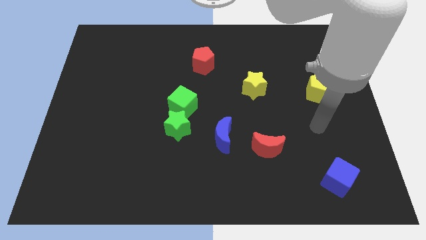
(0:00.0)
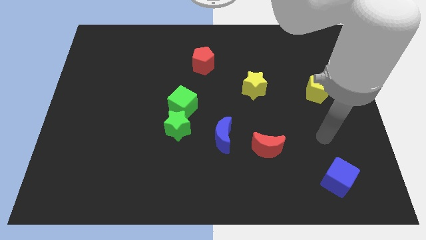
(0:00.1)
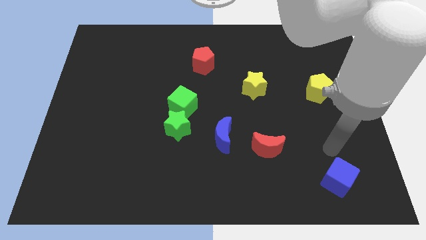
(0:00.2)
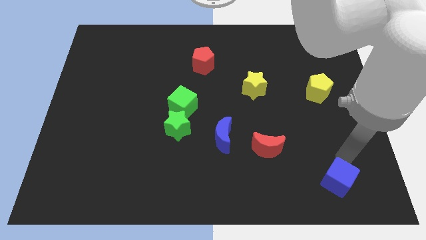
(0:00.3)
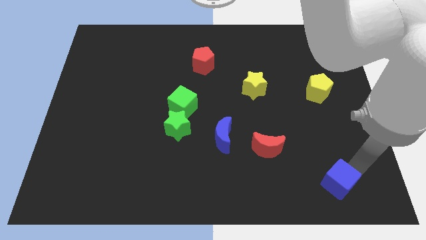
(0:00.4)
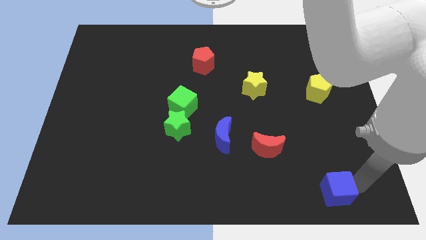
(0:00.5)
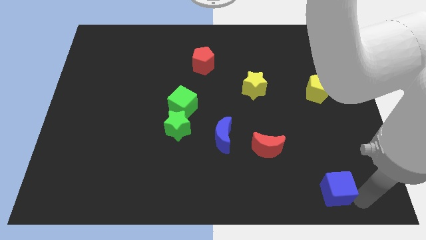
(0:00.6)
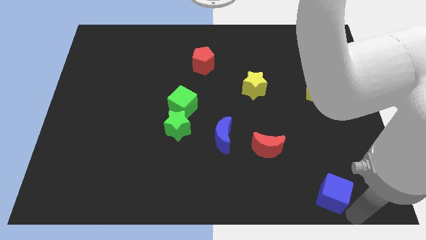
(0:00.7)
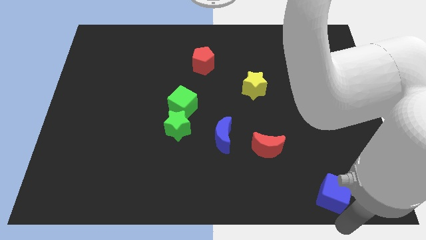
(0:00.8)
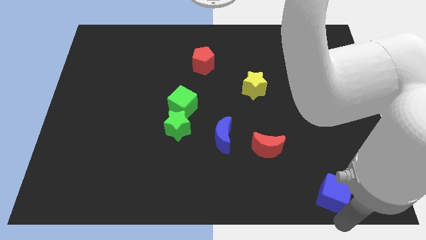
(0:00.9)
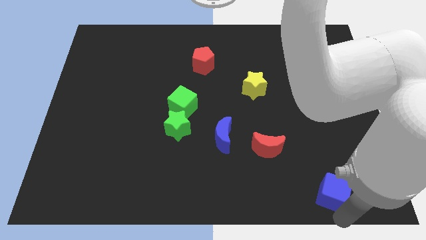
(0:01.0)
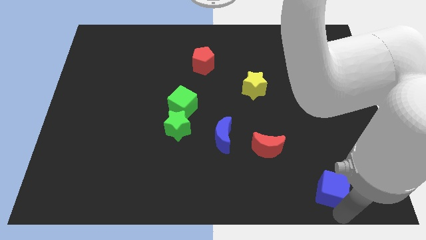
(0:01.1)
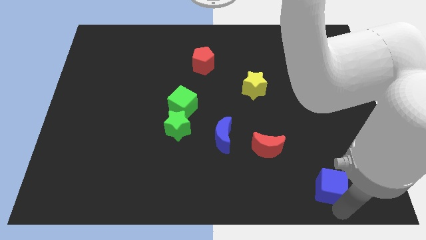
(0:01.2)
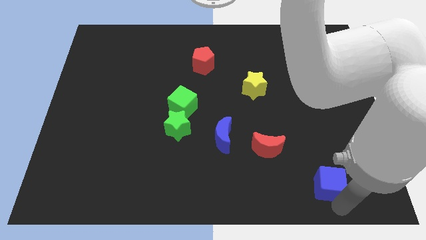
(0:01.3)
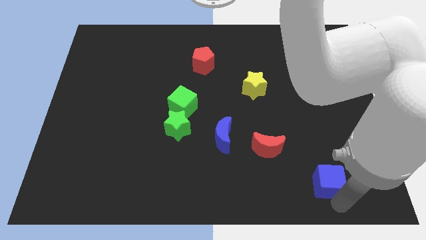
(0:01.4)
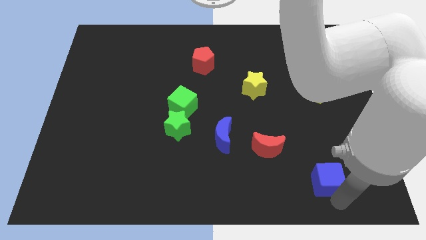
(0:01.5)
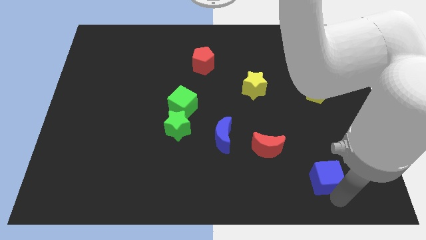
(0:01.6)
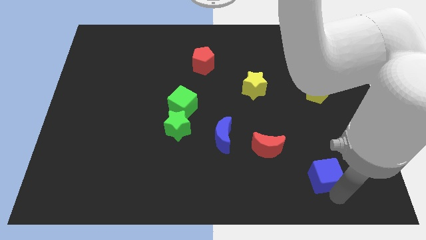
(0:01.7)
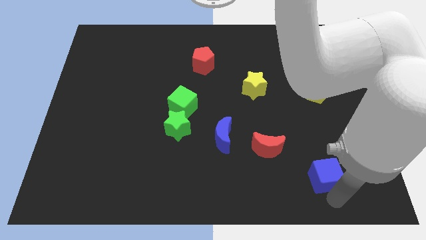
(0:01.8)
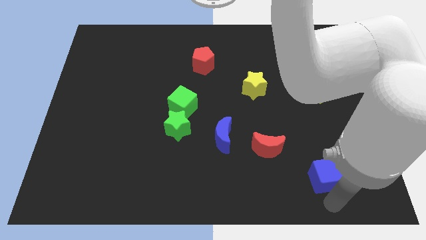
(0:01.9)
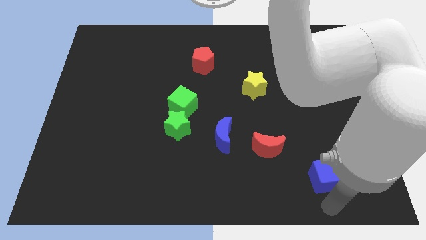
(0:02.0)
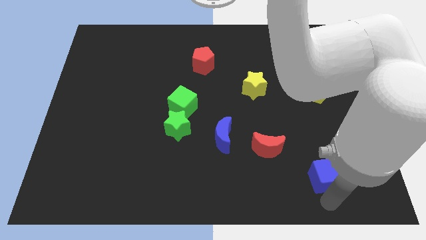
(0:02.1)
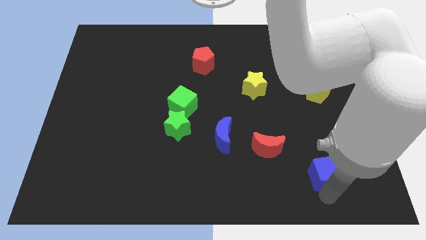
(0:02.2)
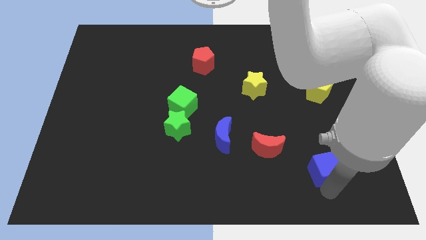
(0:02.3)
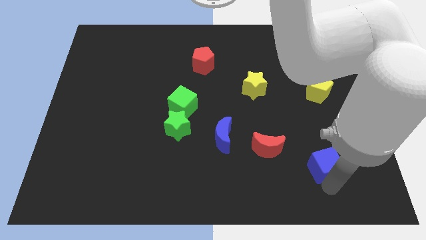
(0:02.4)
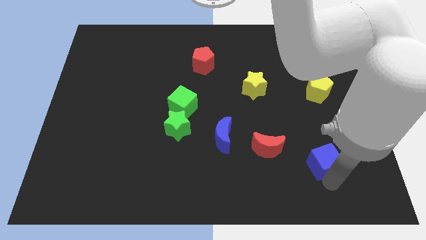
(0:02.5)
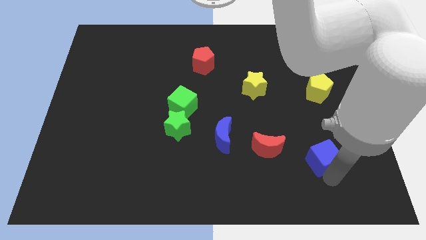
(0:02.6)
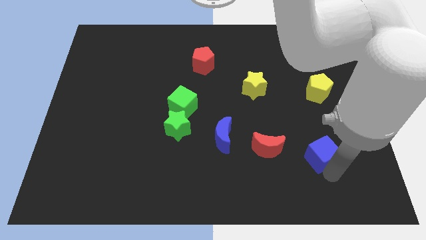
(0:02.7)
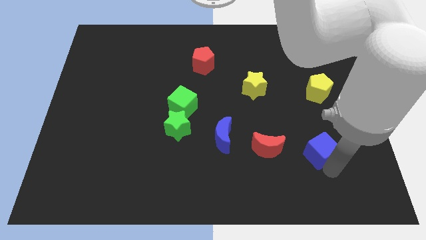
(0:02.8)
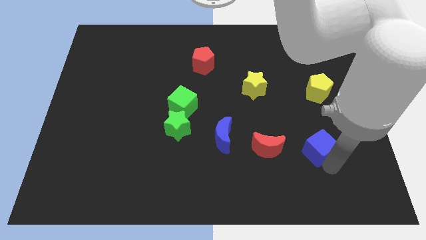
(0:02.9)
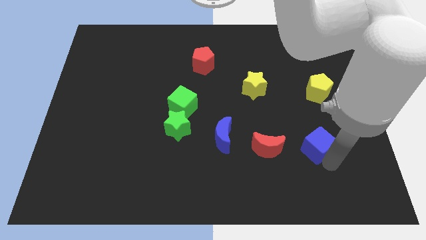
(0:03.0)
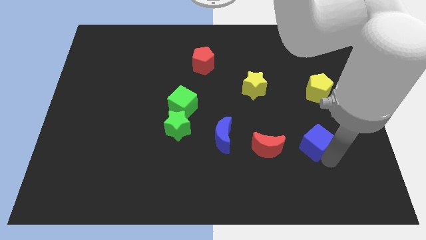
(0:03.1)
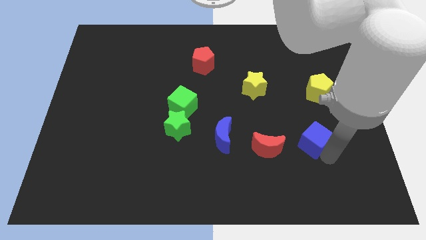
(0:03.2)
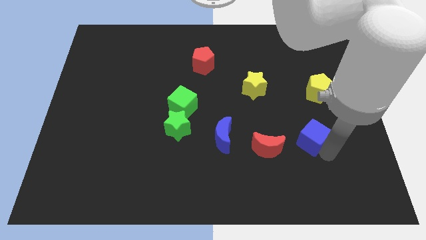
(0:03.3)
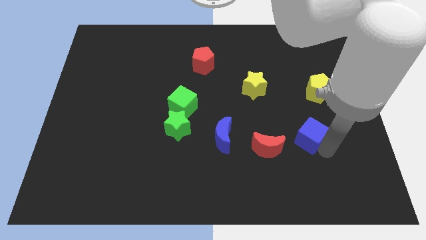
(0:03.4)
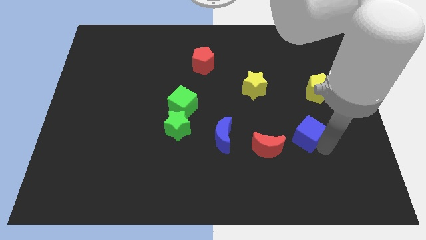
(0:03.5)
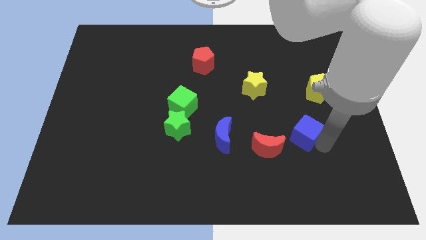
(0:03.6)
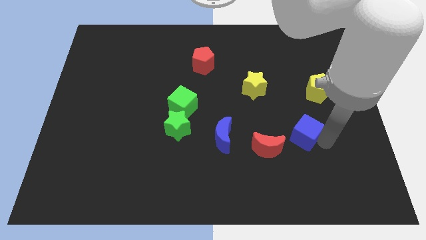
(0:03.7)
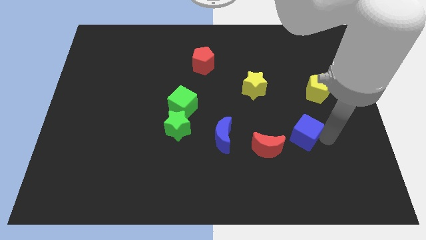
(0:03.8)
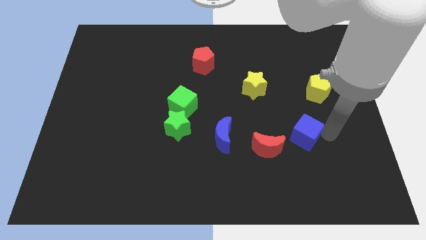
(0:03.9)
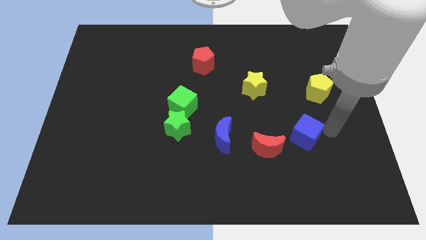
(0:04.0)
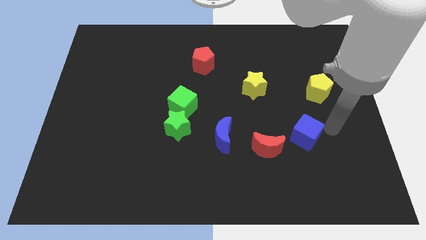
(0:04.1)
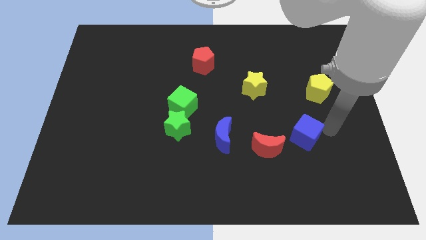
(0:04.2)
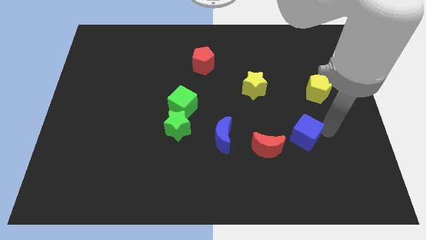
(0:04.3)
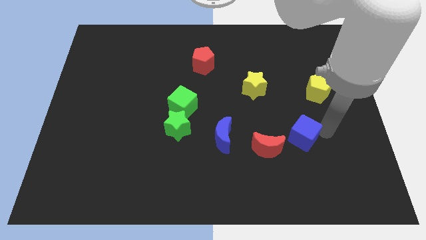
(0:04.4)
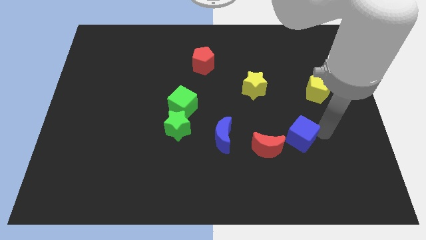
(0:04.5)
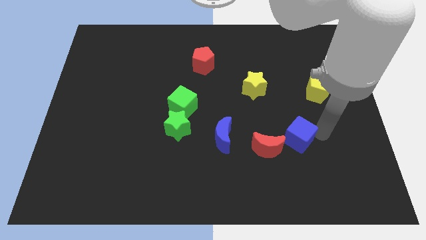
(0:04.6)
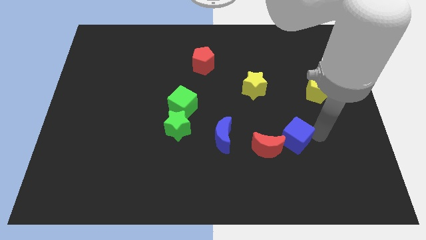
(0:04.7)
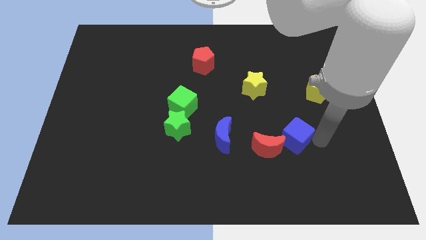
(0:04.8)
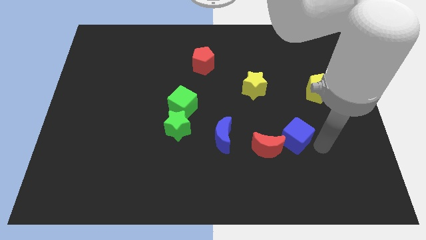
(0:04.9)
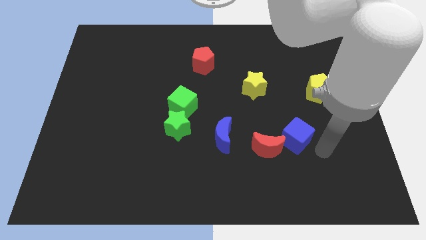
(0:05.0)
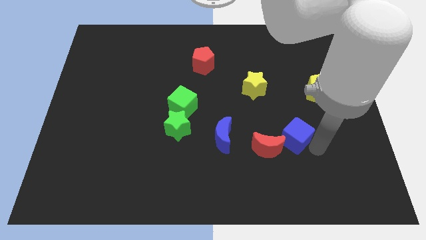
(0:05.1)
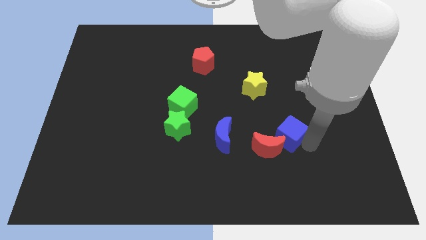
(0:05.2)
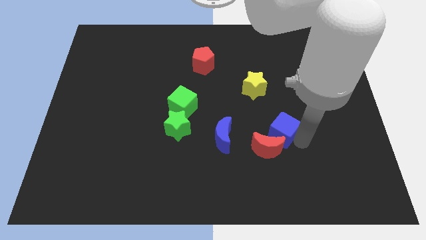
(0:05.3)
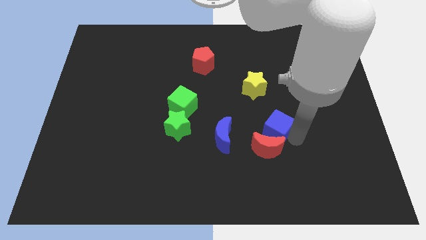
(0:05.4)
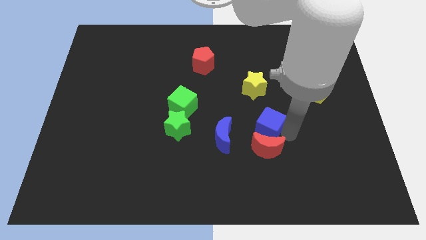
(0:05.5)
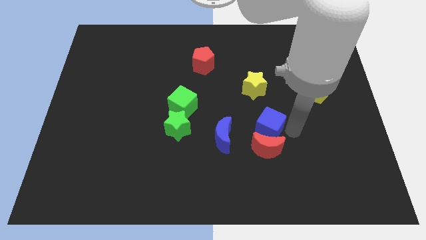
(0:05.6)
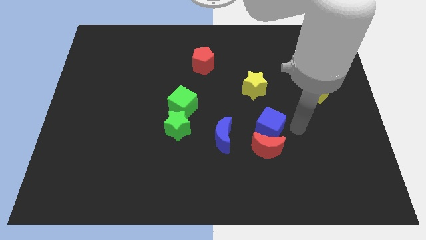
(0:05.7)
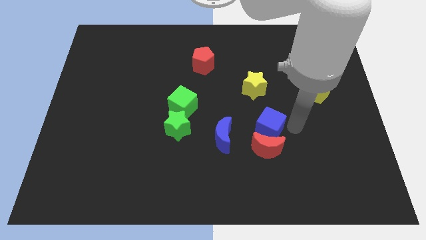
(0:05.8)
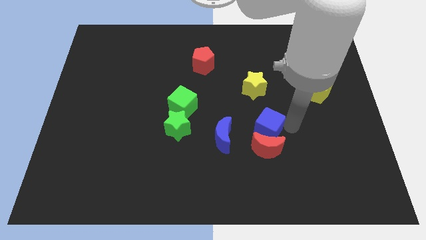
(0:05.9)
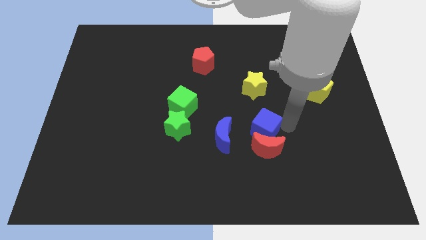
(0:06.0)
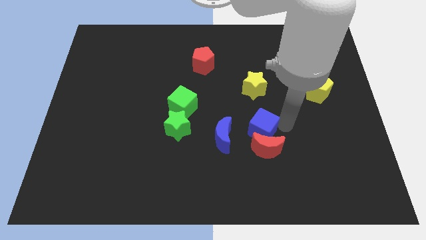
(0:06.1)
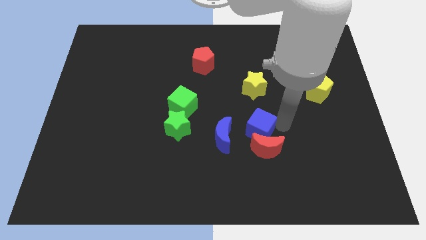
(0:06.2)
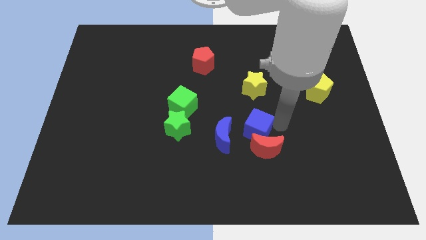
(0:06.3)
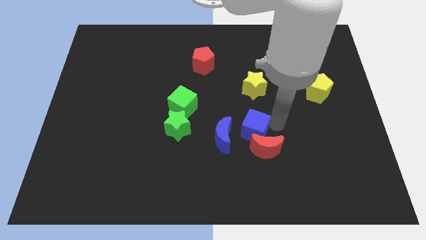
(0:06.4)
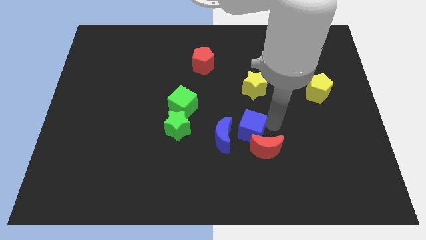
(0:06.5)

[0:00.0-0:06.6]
push the blue cube right of the green star
